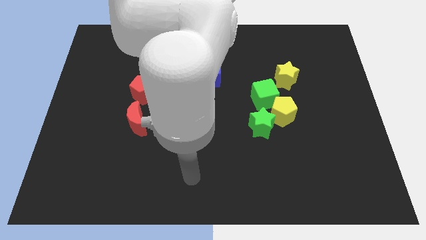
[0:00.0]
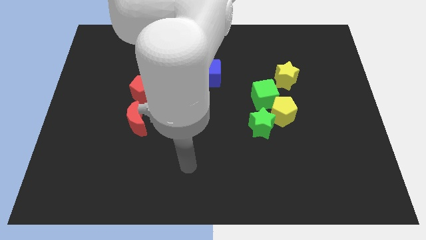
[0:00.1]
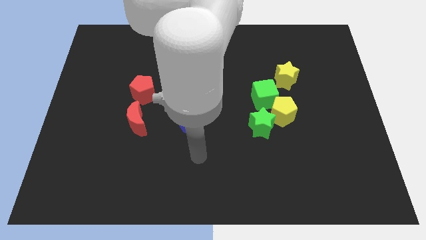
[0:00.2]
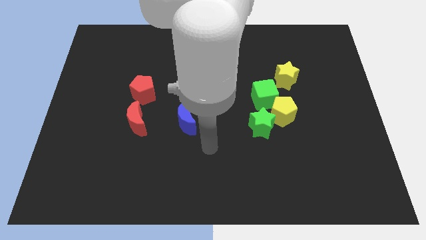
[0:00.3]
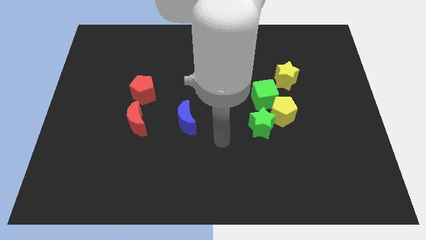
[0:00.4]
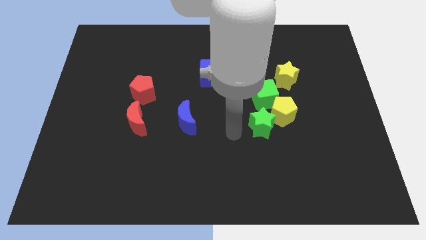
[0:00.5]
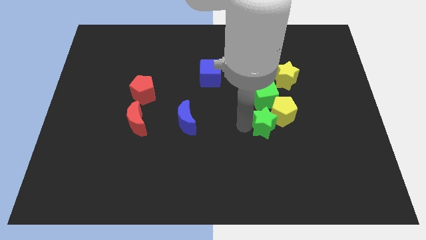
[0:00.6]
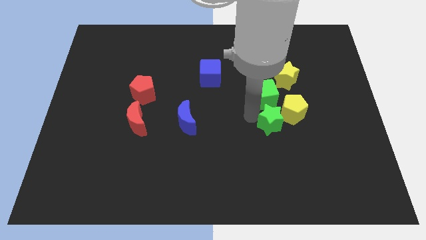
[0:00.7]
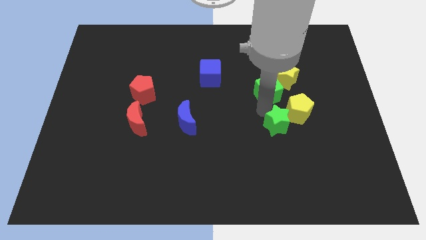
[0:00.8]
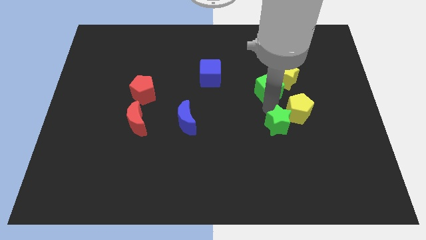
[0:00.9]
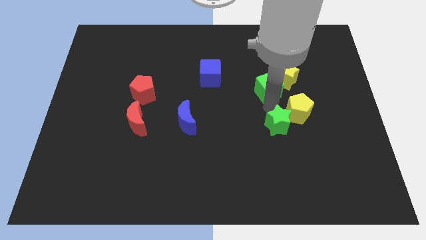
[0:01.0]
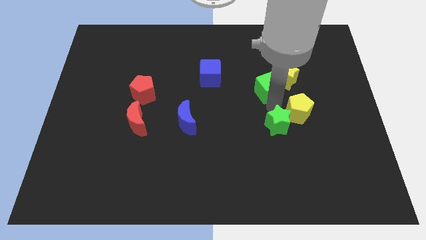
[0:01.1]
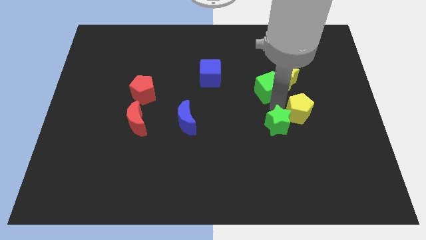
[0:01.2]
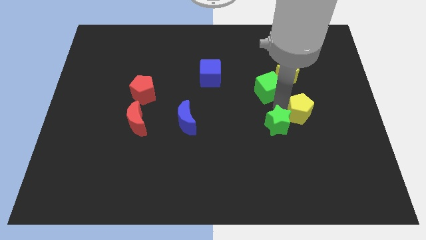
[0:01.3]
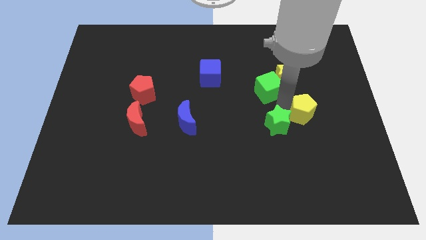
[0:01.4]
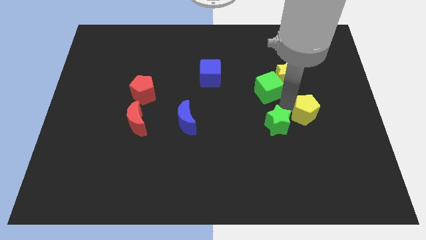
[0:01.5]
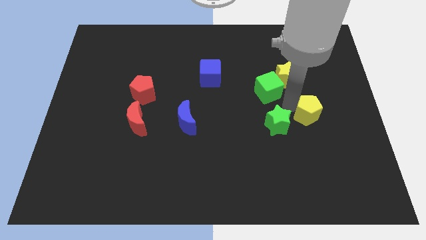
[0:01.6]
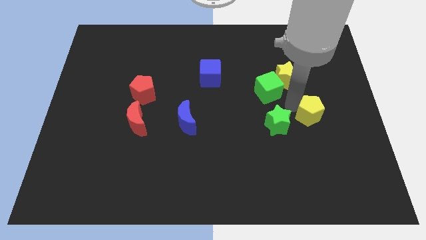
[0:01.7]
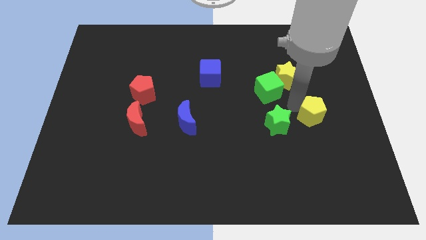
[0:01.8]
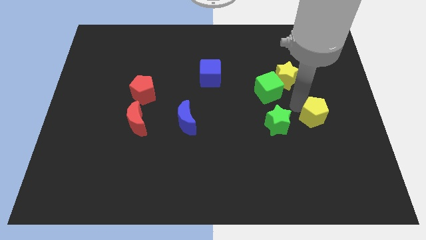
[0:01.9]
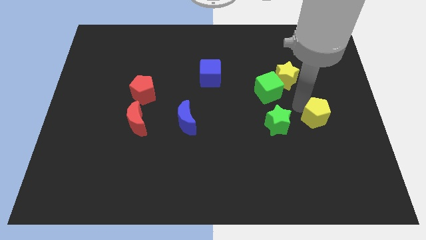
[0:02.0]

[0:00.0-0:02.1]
separate the yellow pentagon from the green cube and green star

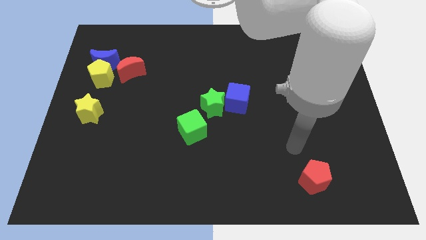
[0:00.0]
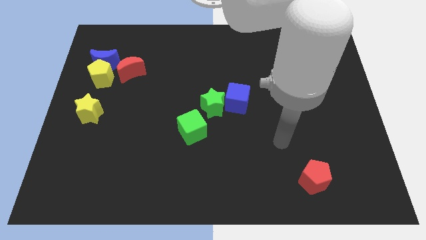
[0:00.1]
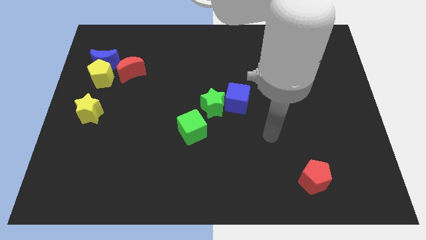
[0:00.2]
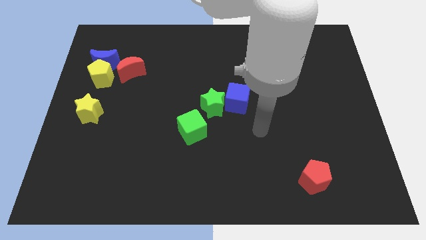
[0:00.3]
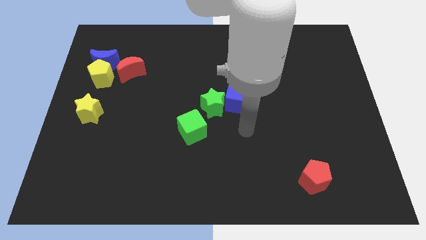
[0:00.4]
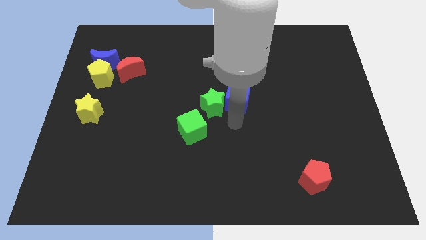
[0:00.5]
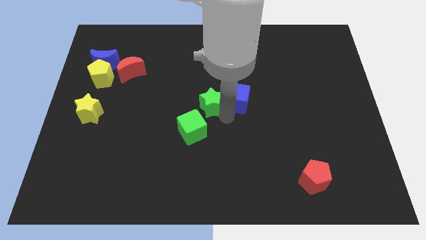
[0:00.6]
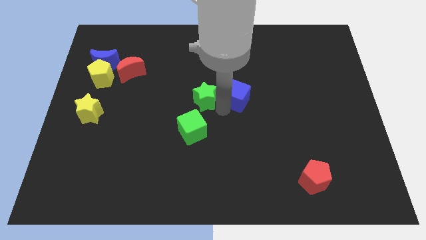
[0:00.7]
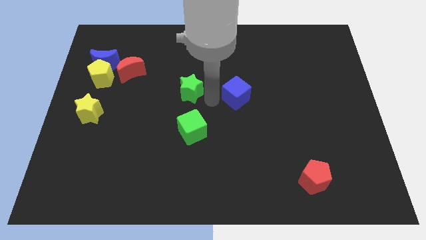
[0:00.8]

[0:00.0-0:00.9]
pull the blue cube apart from the green star

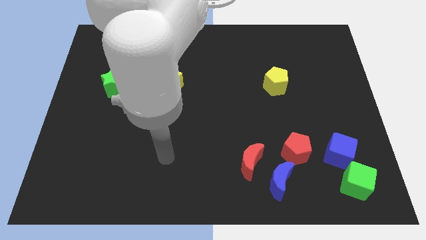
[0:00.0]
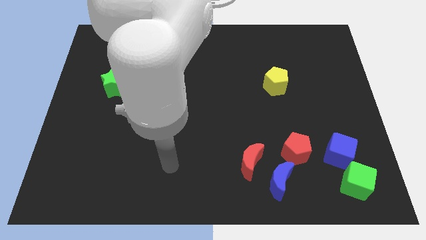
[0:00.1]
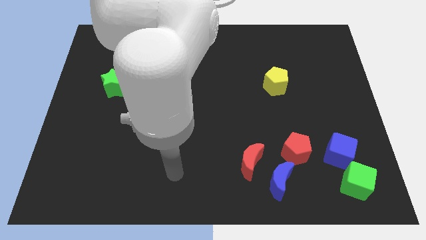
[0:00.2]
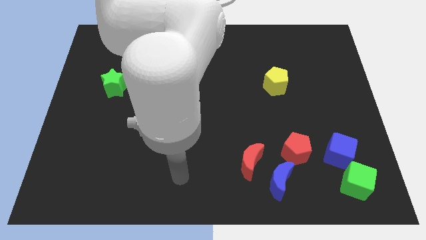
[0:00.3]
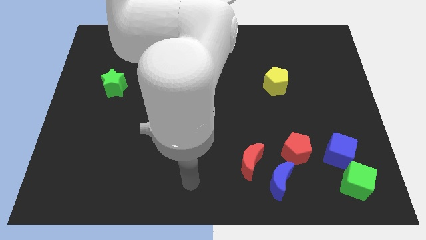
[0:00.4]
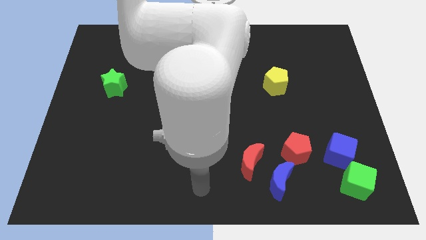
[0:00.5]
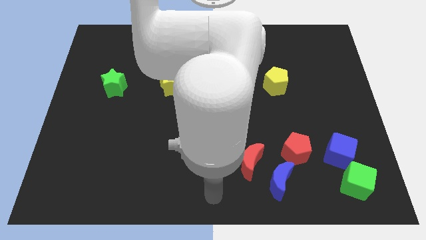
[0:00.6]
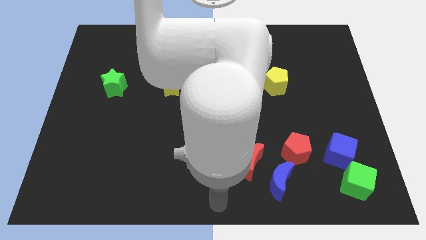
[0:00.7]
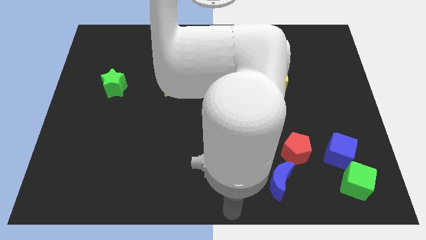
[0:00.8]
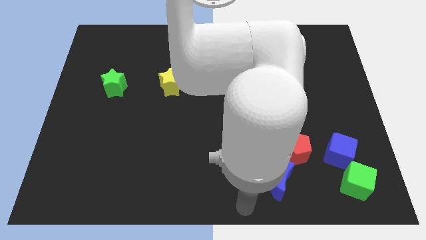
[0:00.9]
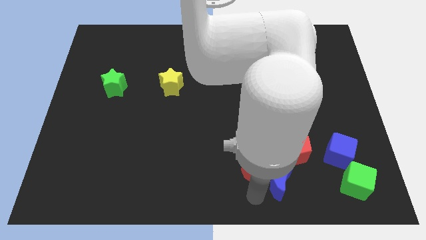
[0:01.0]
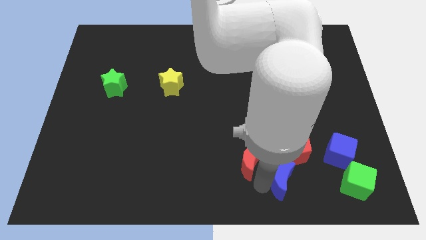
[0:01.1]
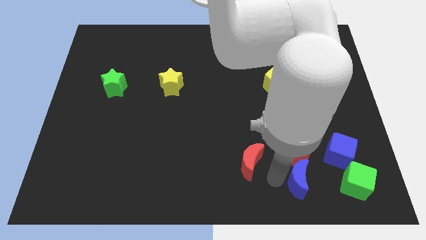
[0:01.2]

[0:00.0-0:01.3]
pull the red moon apart from the blue moon

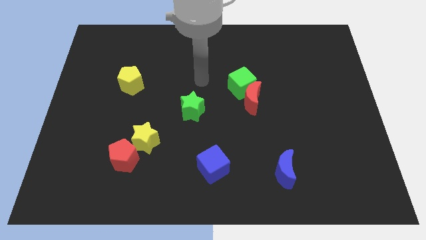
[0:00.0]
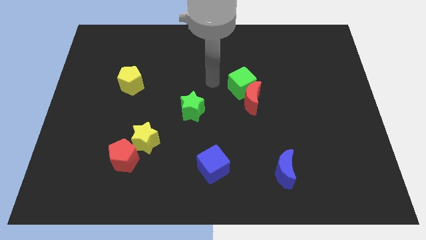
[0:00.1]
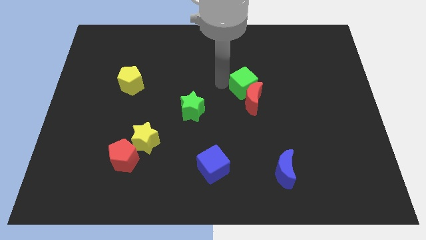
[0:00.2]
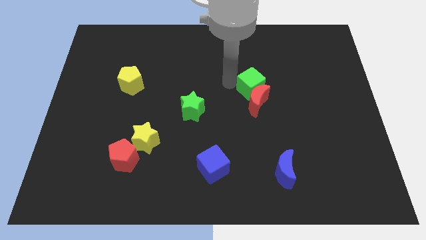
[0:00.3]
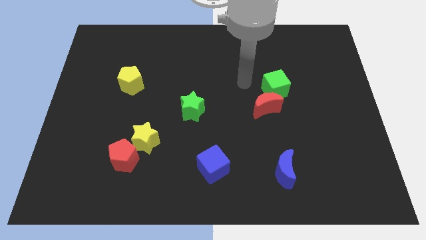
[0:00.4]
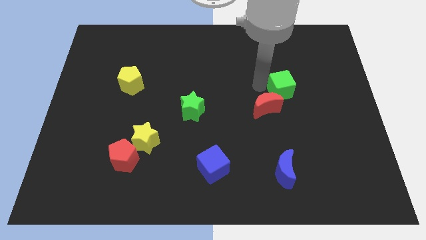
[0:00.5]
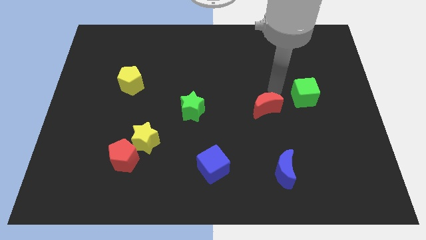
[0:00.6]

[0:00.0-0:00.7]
pull the red moon apart from the green cube

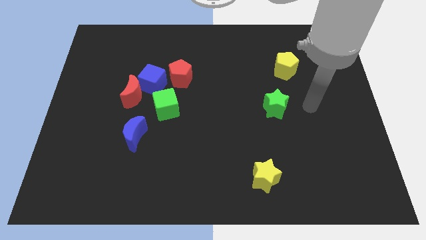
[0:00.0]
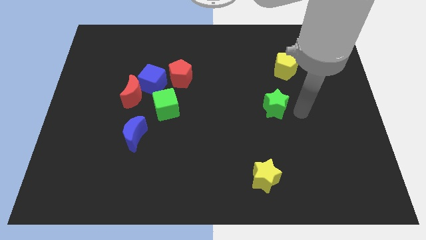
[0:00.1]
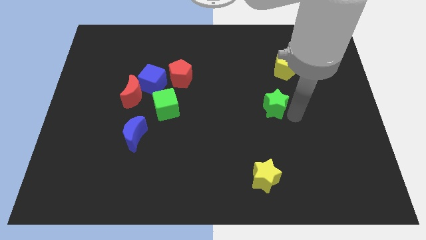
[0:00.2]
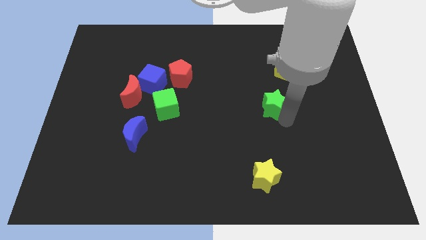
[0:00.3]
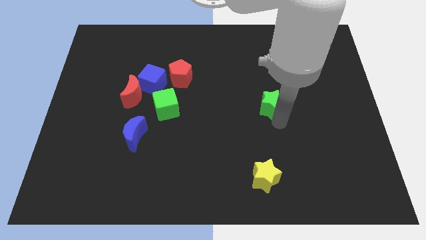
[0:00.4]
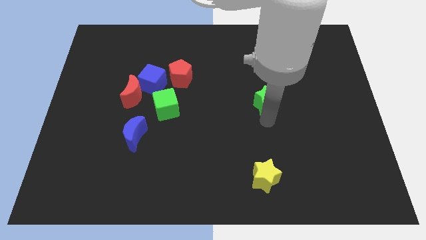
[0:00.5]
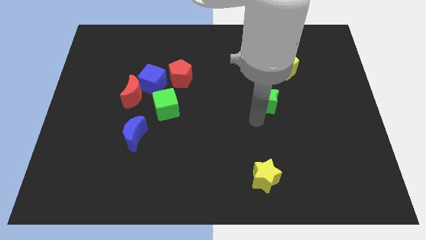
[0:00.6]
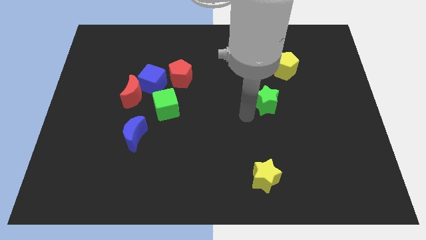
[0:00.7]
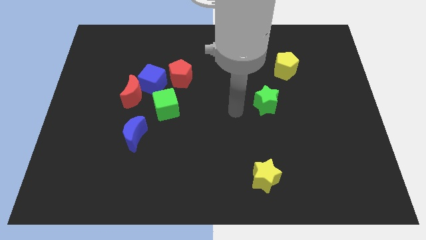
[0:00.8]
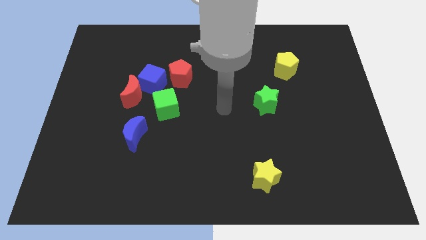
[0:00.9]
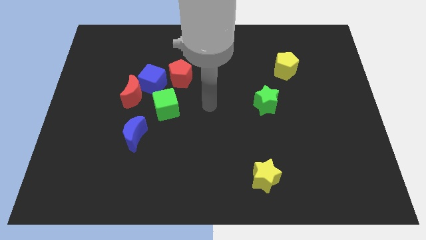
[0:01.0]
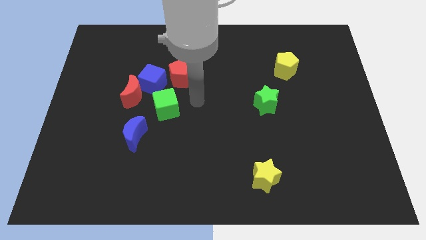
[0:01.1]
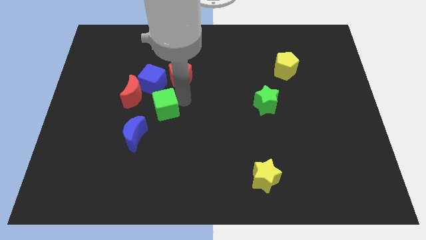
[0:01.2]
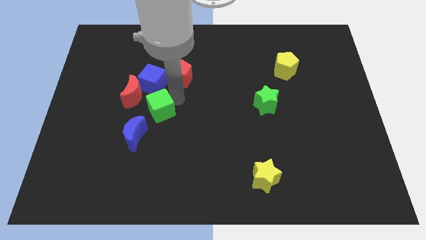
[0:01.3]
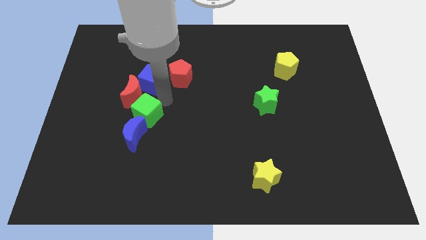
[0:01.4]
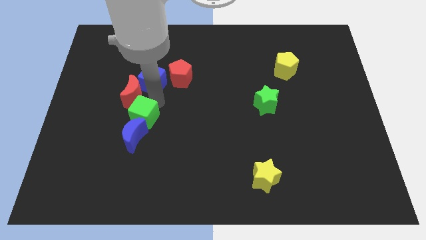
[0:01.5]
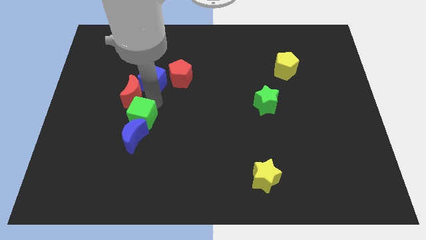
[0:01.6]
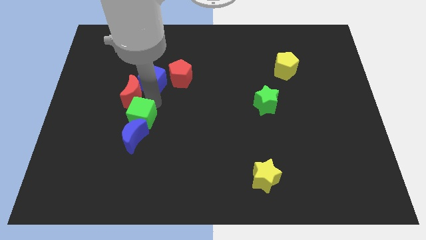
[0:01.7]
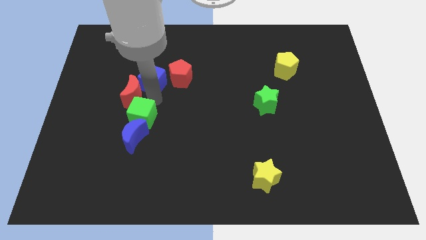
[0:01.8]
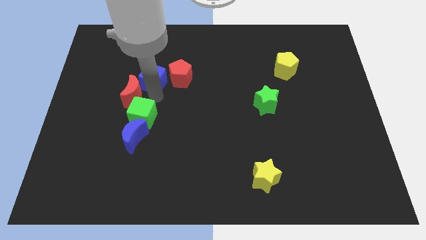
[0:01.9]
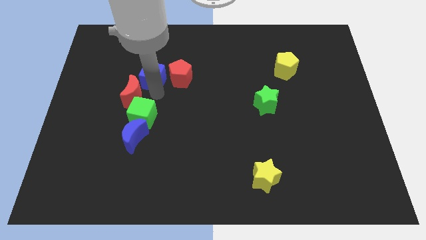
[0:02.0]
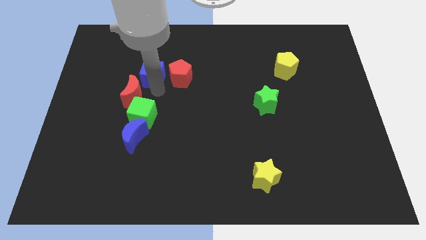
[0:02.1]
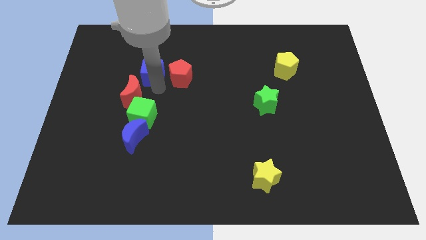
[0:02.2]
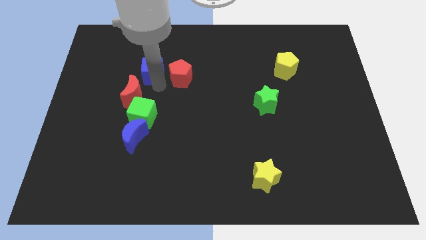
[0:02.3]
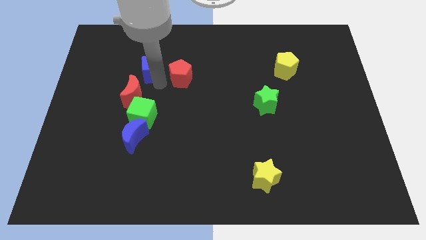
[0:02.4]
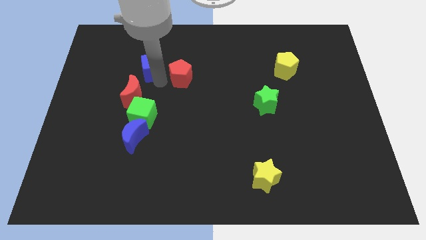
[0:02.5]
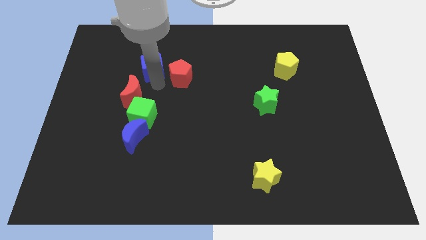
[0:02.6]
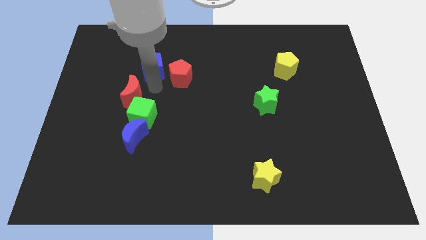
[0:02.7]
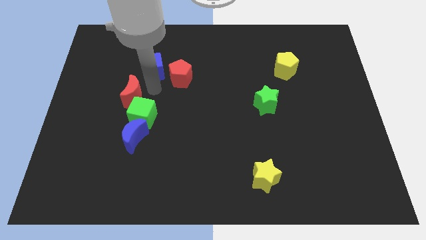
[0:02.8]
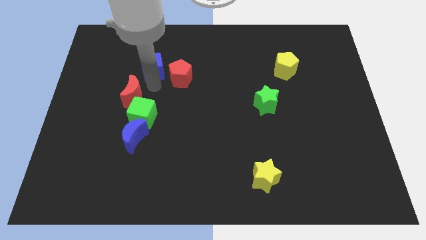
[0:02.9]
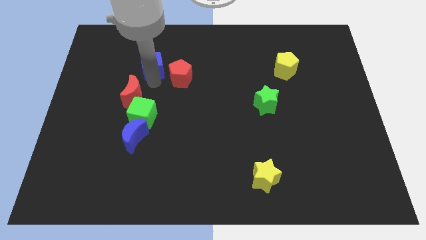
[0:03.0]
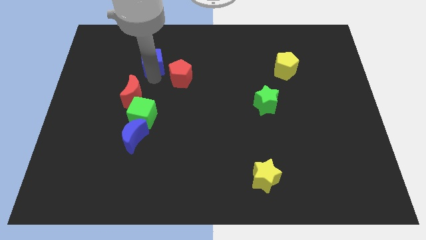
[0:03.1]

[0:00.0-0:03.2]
move the blue cube away from the red moon, red pentagon, and green cube

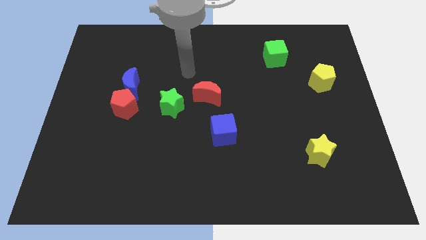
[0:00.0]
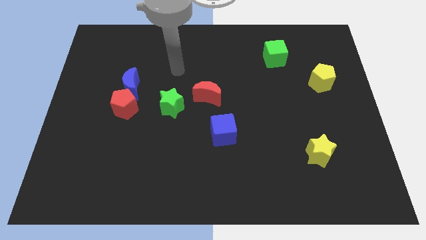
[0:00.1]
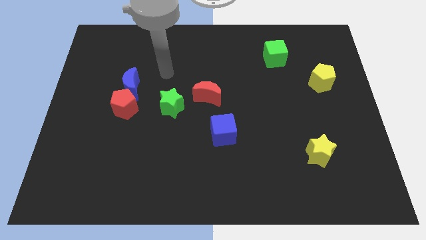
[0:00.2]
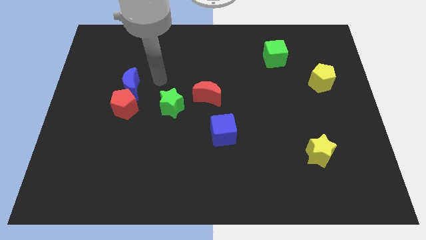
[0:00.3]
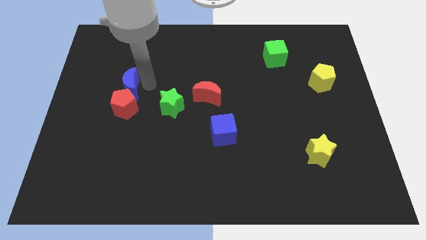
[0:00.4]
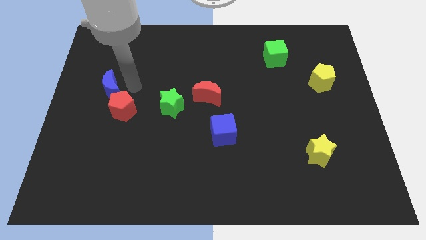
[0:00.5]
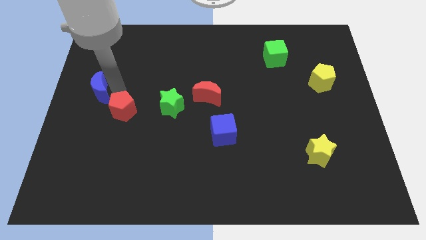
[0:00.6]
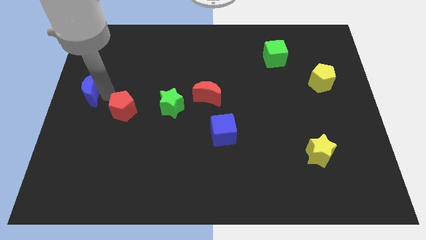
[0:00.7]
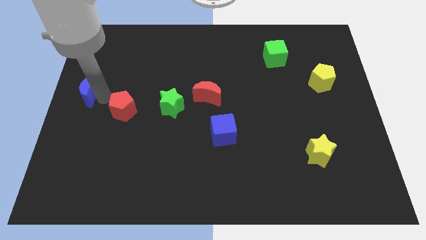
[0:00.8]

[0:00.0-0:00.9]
move the red pentagon away from the blue moon

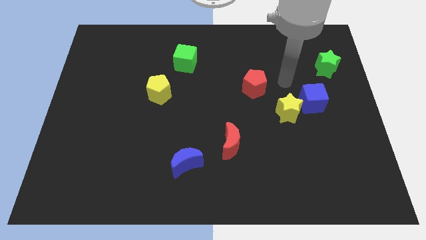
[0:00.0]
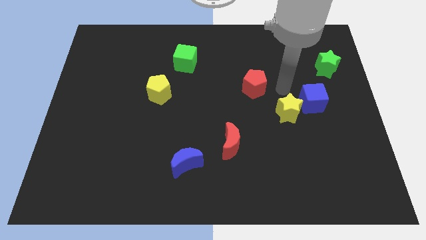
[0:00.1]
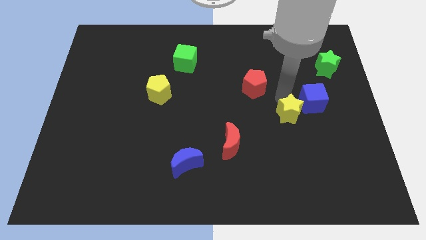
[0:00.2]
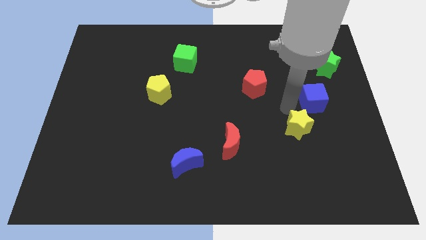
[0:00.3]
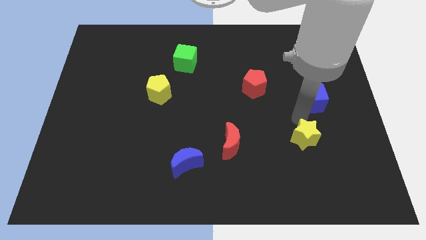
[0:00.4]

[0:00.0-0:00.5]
move the blue cube away from the yellow star
